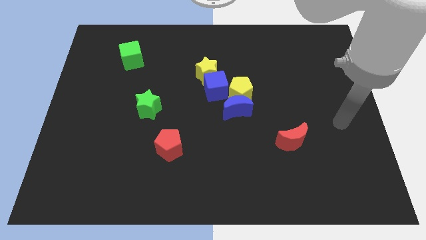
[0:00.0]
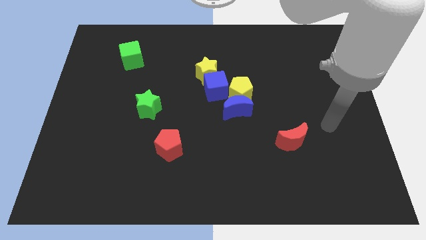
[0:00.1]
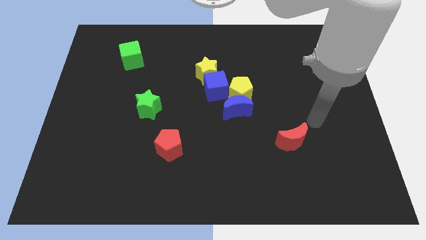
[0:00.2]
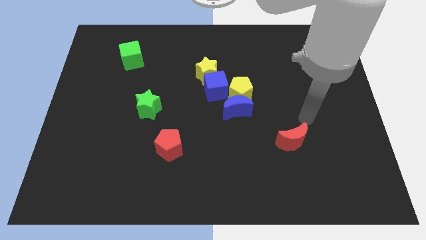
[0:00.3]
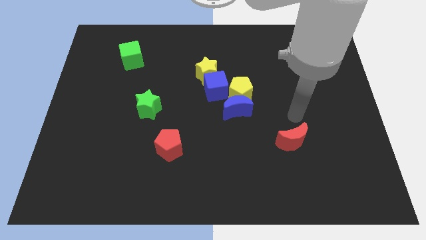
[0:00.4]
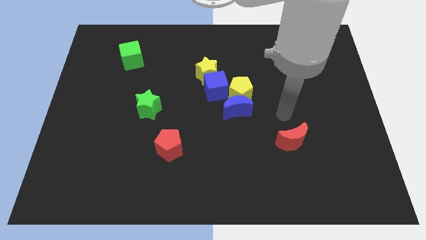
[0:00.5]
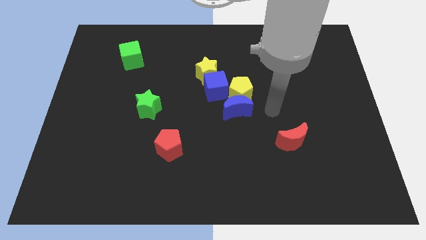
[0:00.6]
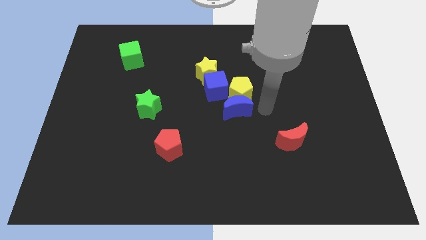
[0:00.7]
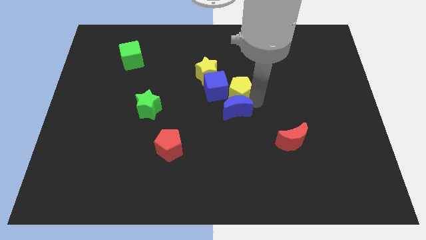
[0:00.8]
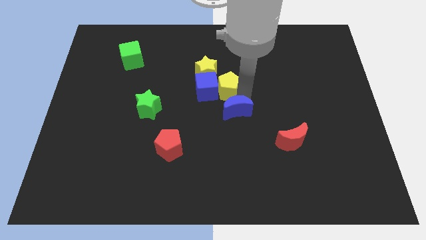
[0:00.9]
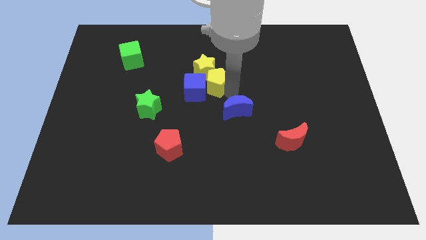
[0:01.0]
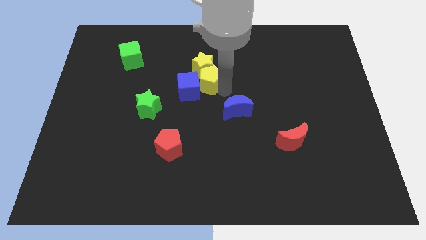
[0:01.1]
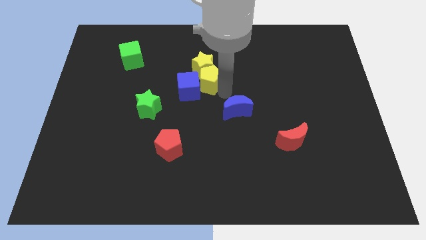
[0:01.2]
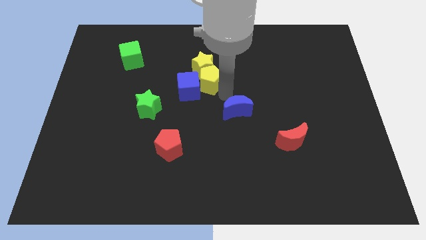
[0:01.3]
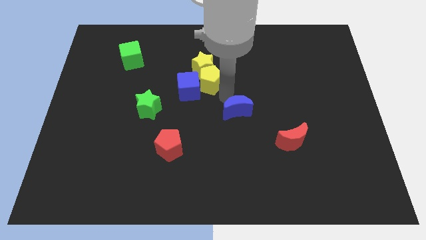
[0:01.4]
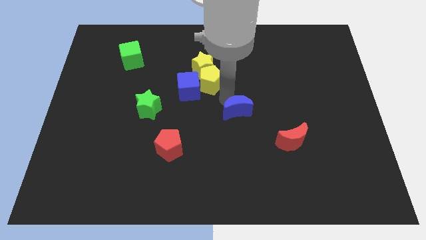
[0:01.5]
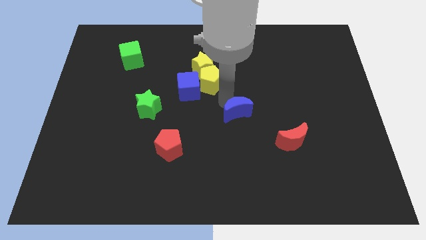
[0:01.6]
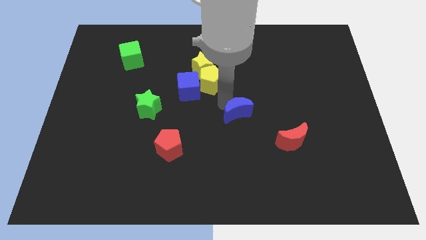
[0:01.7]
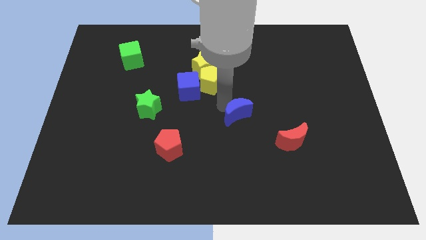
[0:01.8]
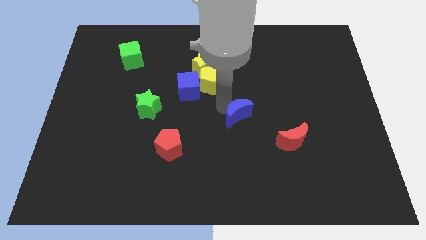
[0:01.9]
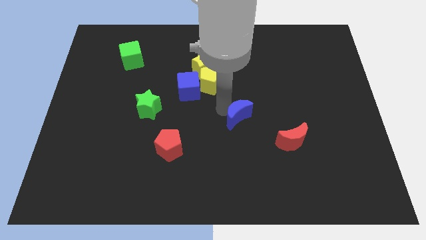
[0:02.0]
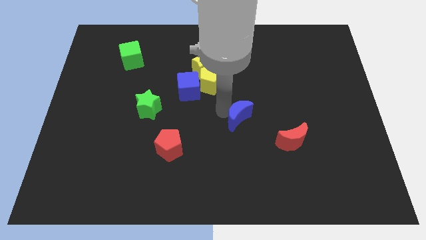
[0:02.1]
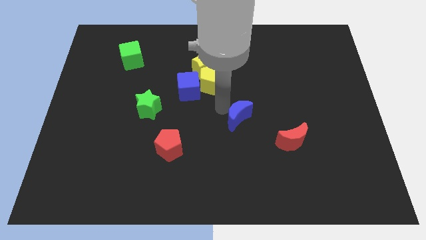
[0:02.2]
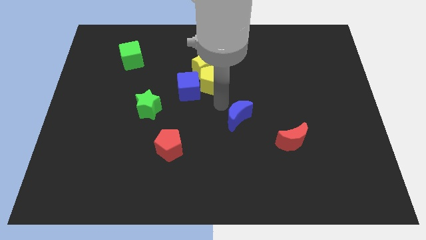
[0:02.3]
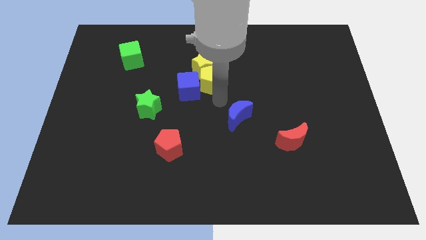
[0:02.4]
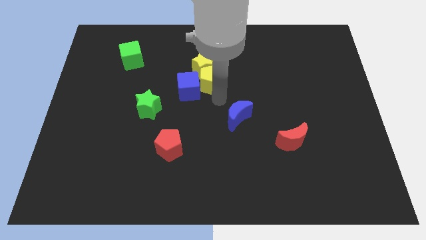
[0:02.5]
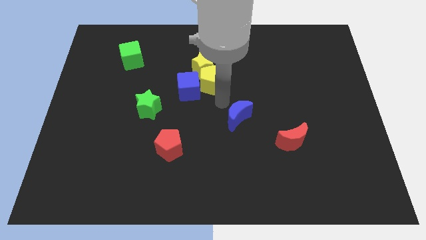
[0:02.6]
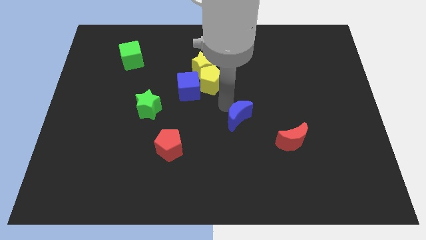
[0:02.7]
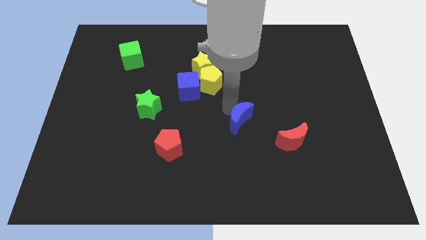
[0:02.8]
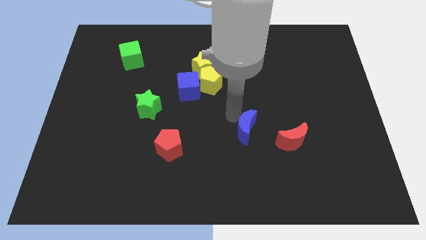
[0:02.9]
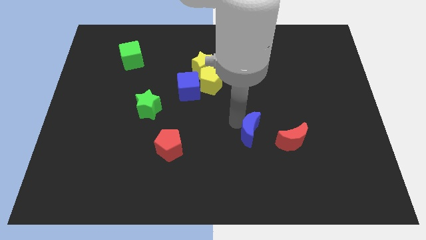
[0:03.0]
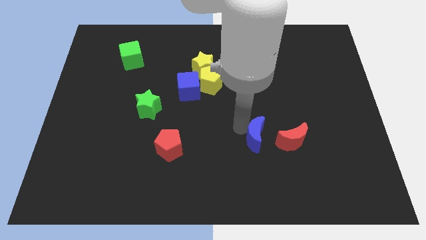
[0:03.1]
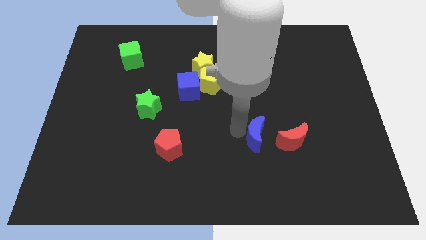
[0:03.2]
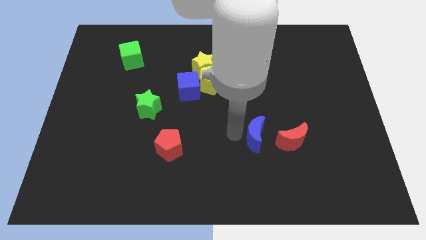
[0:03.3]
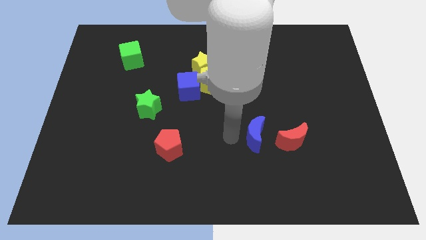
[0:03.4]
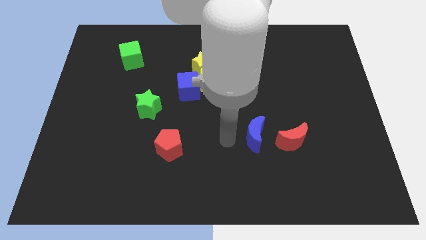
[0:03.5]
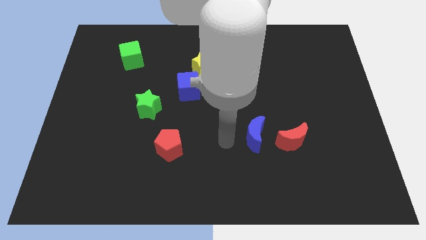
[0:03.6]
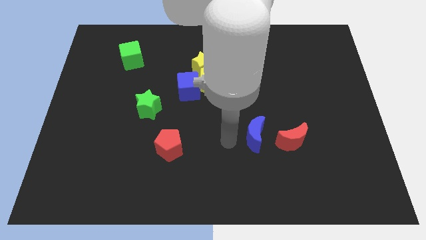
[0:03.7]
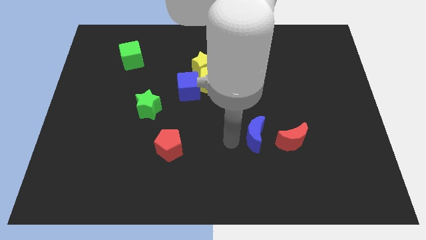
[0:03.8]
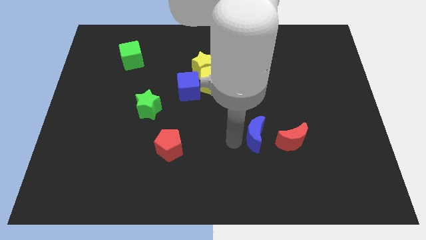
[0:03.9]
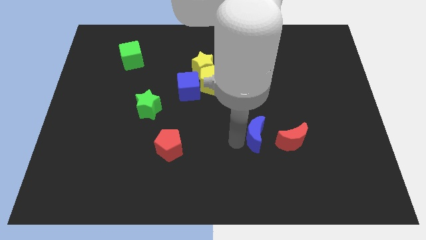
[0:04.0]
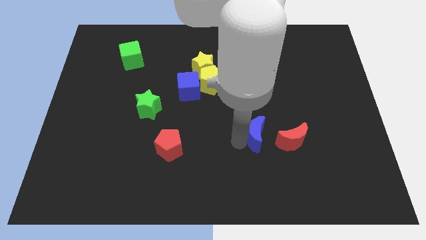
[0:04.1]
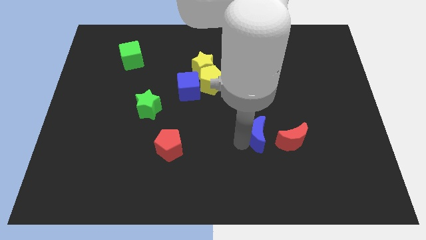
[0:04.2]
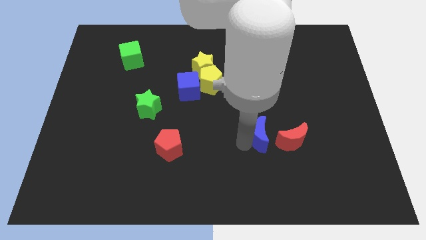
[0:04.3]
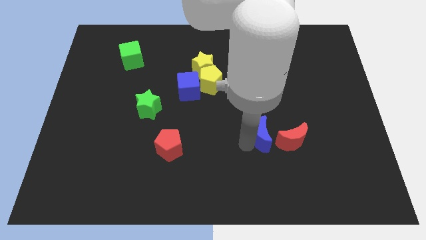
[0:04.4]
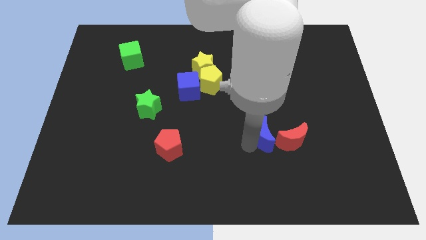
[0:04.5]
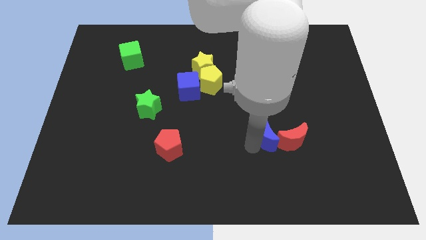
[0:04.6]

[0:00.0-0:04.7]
move the blue moon towards the red moon

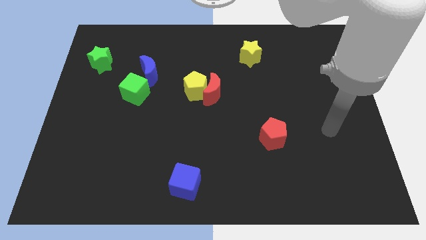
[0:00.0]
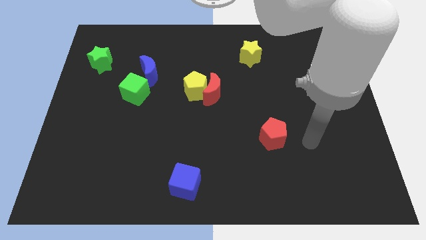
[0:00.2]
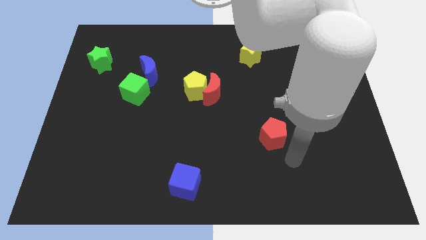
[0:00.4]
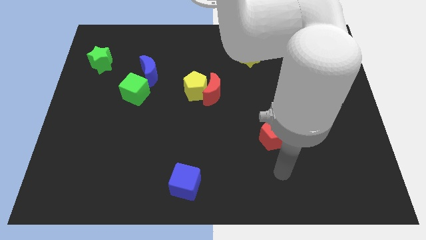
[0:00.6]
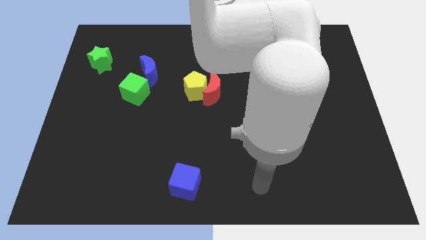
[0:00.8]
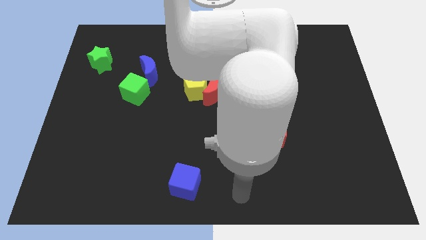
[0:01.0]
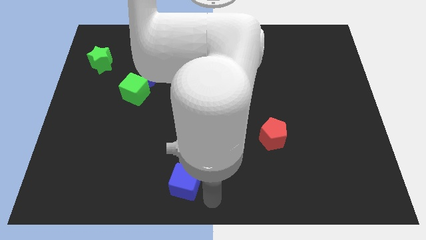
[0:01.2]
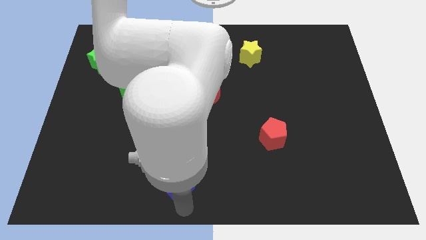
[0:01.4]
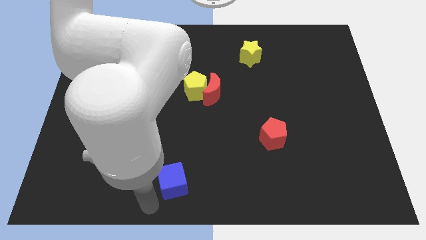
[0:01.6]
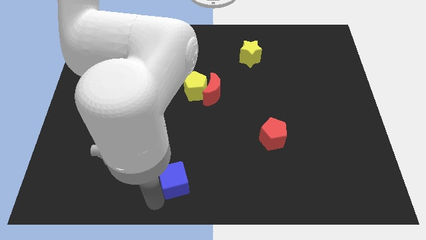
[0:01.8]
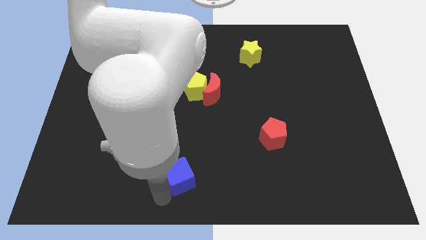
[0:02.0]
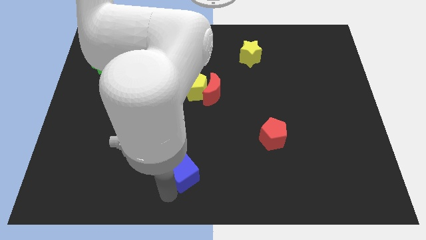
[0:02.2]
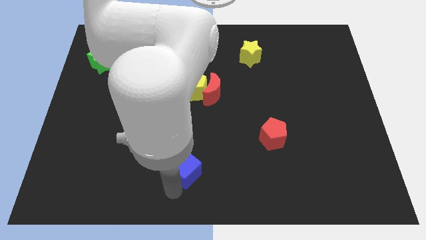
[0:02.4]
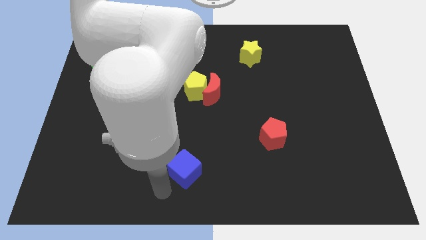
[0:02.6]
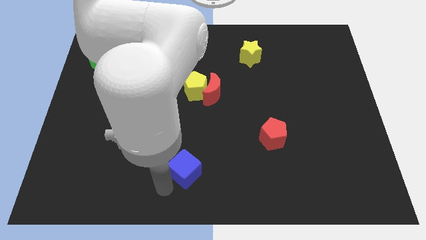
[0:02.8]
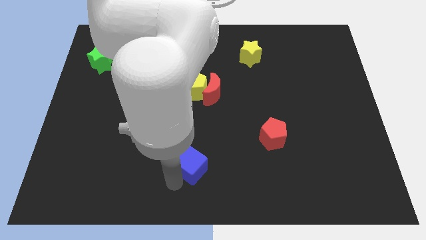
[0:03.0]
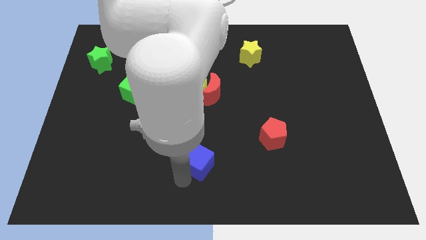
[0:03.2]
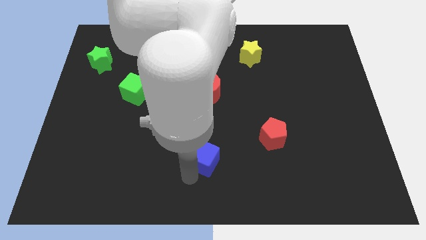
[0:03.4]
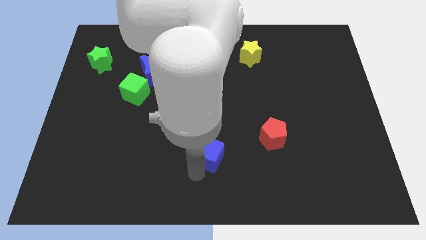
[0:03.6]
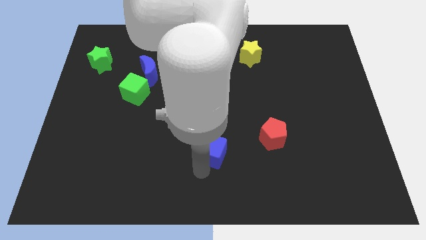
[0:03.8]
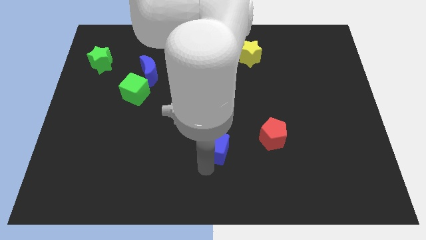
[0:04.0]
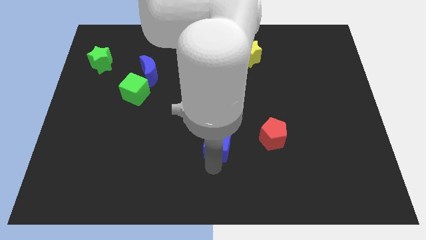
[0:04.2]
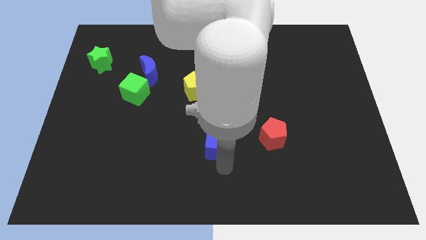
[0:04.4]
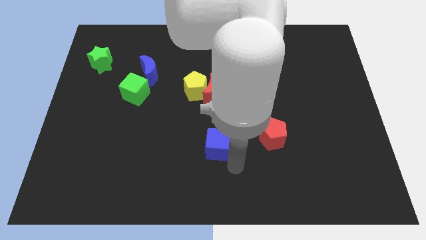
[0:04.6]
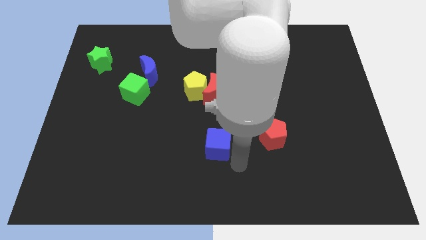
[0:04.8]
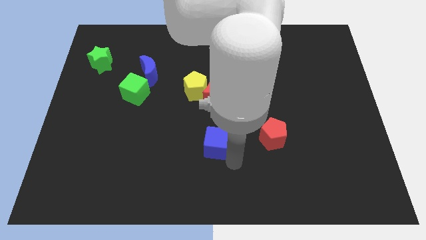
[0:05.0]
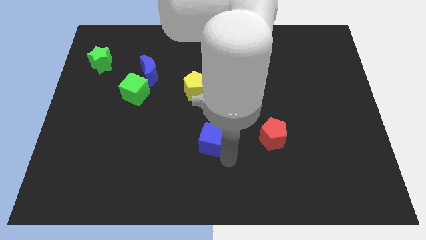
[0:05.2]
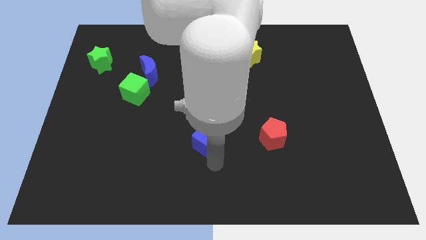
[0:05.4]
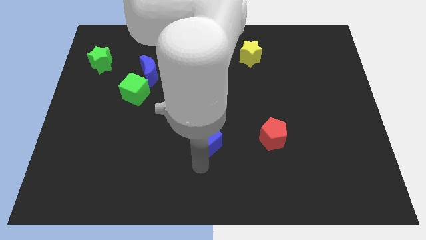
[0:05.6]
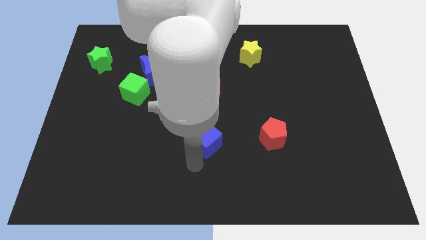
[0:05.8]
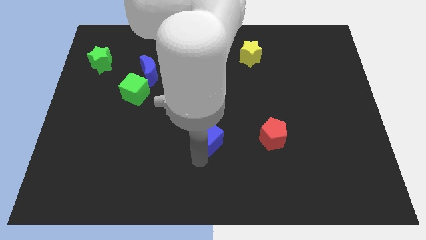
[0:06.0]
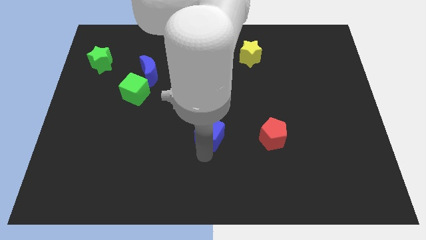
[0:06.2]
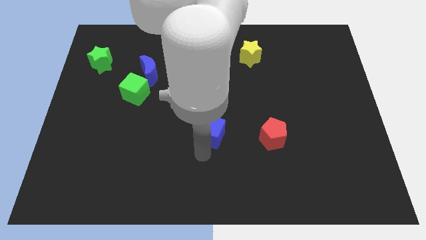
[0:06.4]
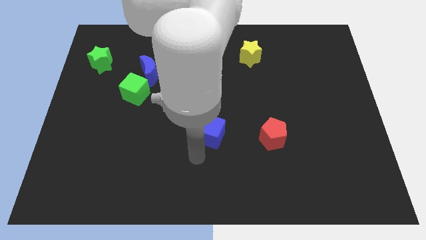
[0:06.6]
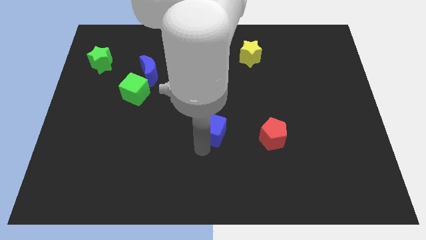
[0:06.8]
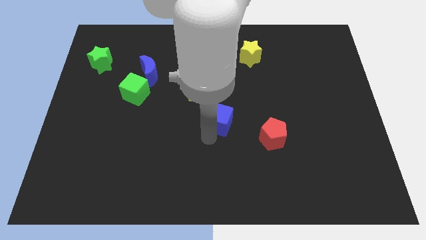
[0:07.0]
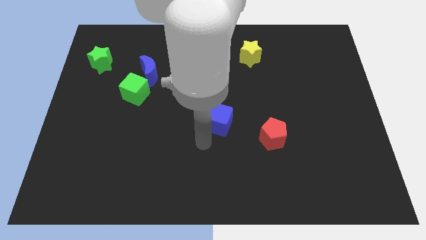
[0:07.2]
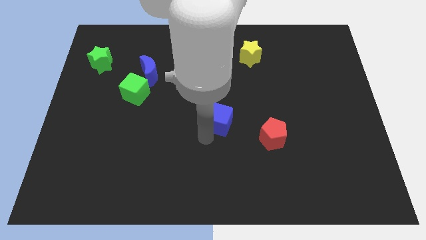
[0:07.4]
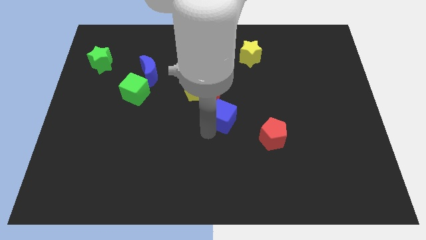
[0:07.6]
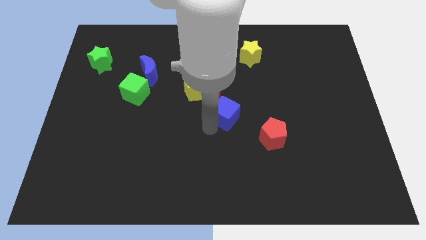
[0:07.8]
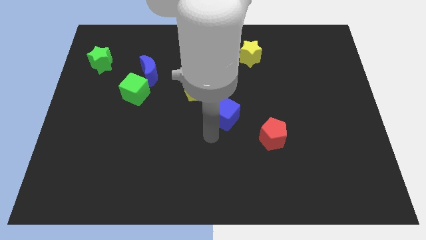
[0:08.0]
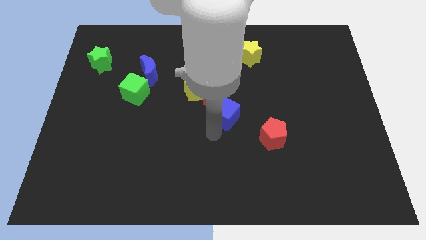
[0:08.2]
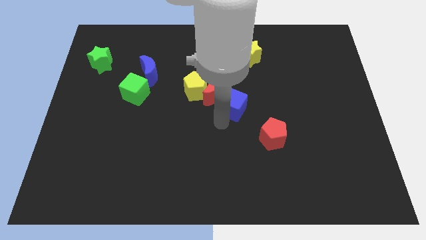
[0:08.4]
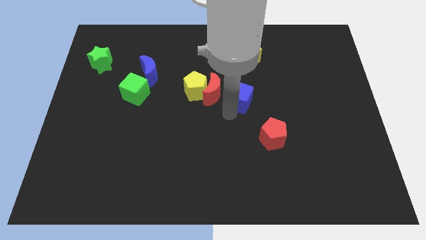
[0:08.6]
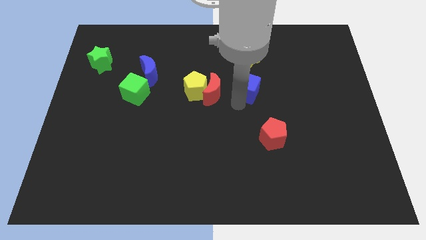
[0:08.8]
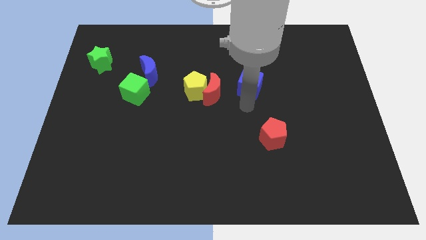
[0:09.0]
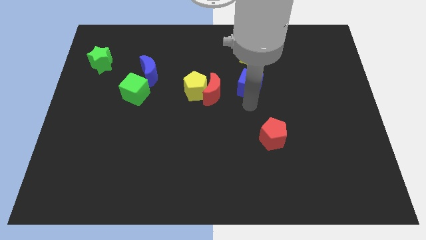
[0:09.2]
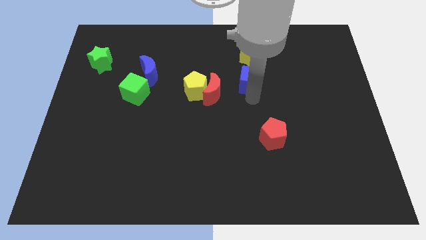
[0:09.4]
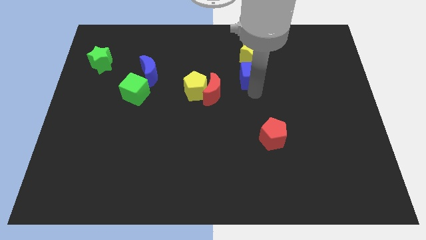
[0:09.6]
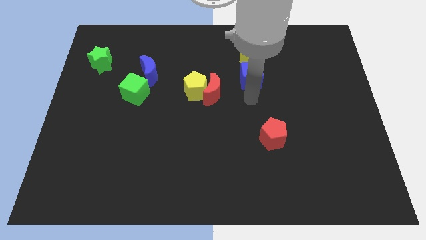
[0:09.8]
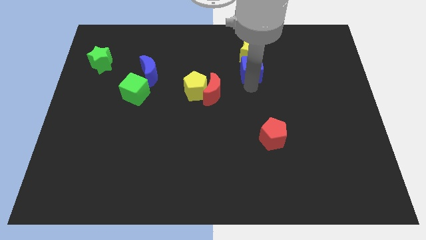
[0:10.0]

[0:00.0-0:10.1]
put the blue cube towards the yellow star
